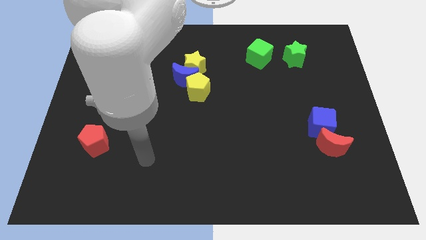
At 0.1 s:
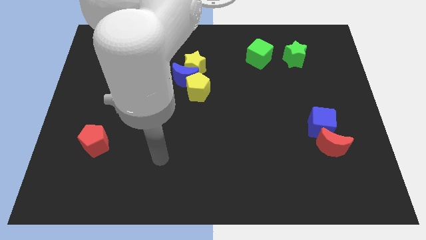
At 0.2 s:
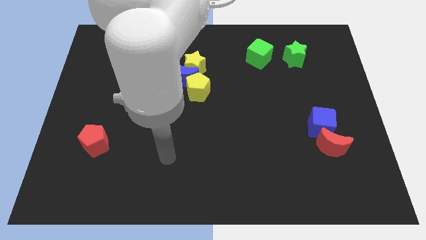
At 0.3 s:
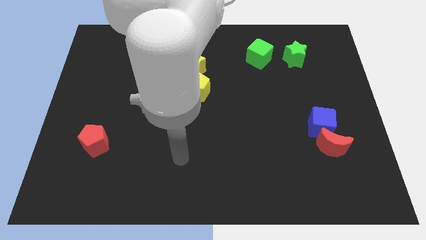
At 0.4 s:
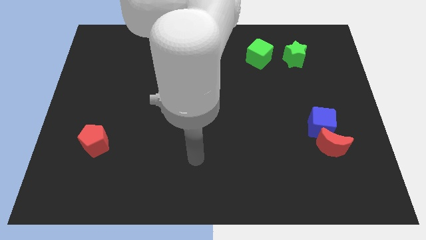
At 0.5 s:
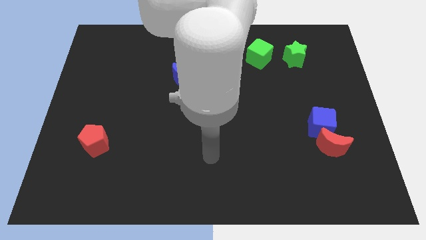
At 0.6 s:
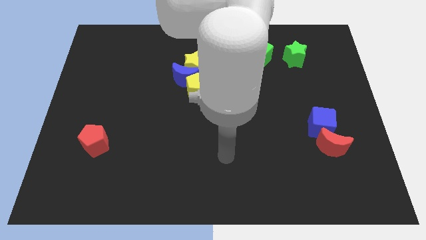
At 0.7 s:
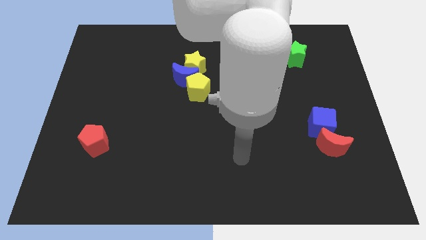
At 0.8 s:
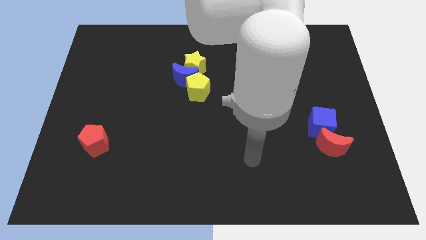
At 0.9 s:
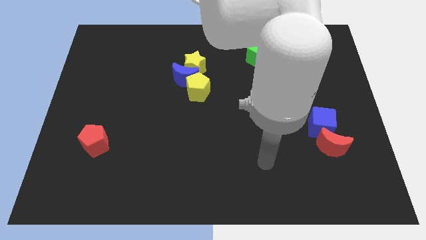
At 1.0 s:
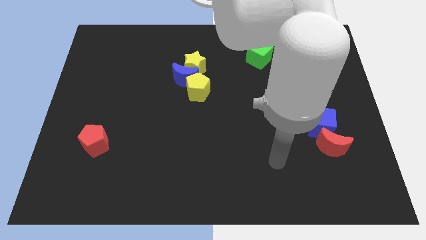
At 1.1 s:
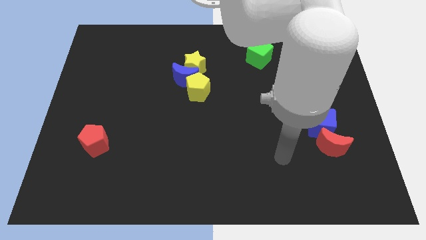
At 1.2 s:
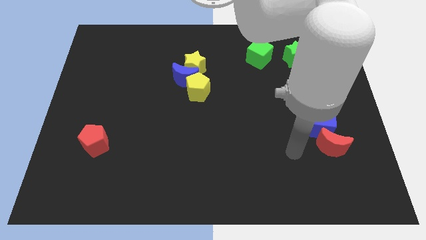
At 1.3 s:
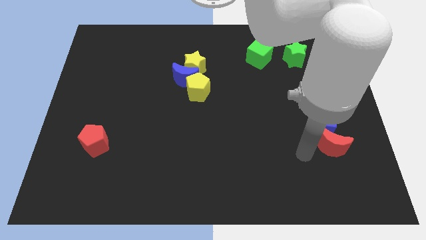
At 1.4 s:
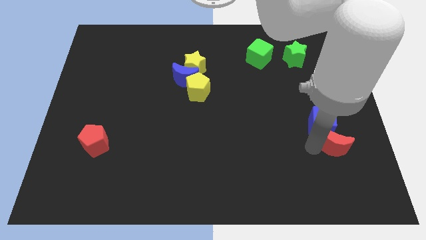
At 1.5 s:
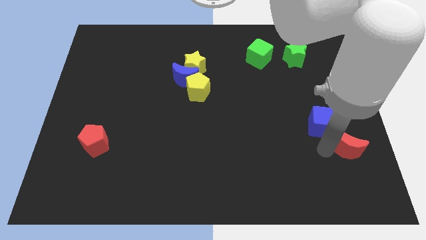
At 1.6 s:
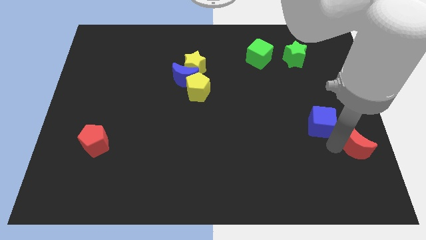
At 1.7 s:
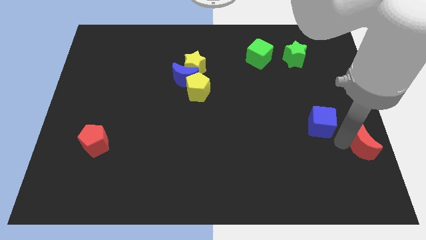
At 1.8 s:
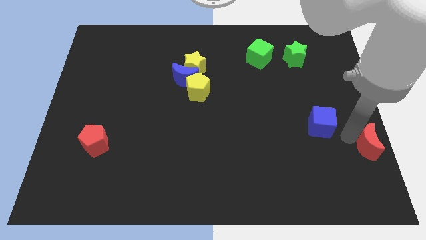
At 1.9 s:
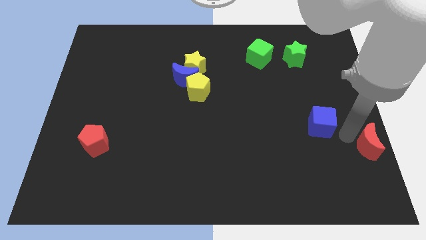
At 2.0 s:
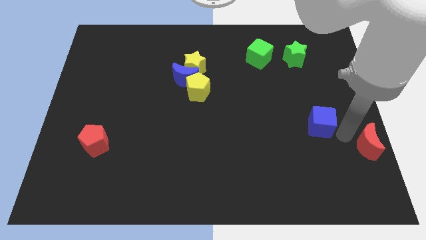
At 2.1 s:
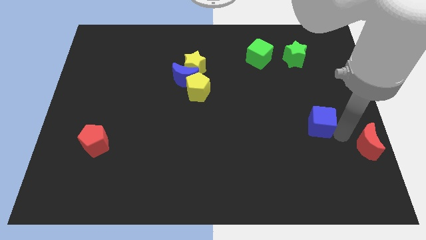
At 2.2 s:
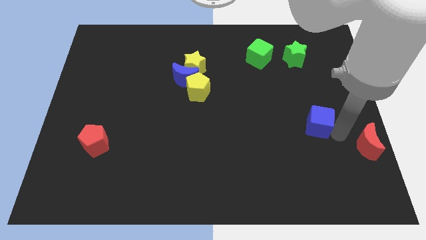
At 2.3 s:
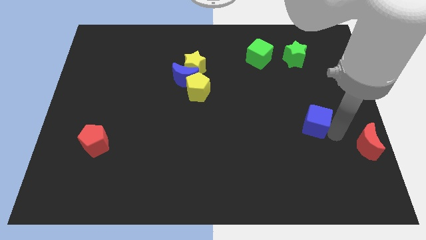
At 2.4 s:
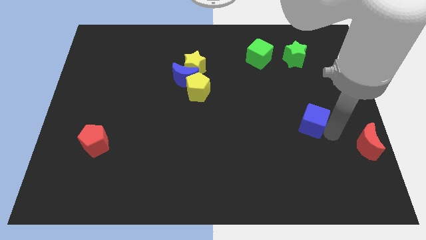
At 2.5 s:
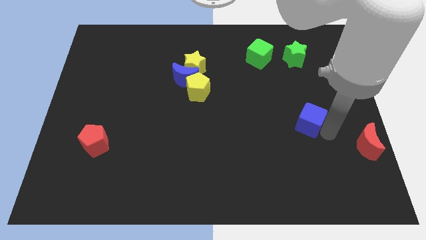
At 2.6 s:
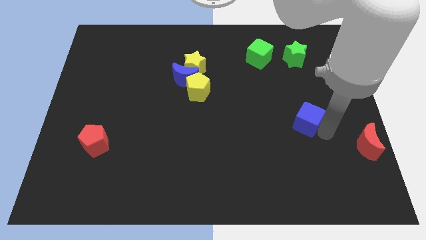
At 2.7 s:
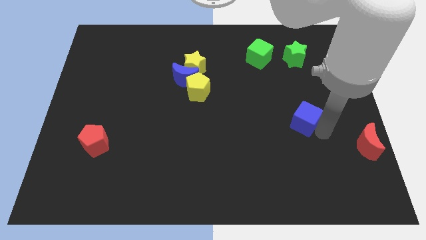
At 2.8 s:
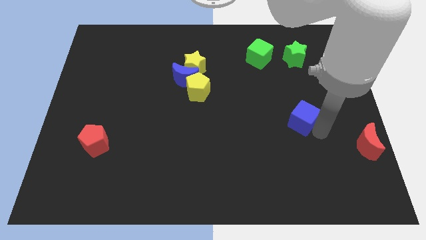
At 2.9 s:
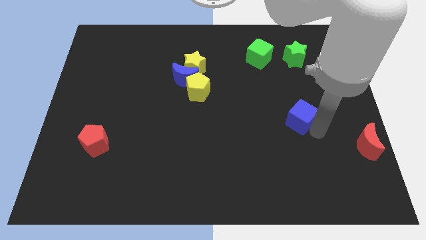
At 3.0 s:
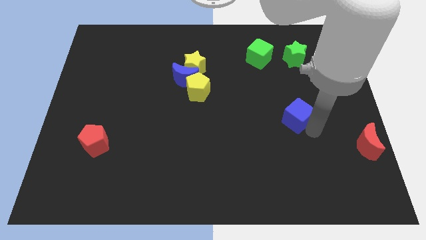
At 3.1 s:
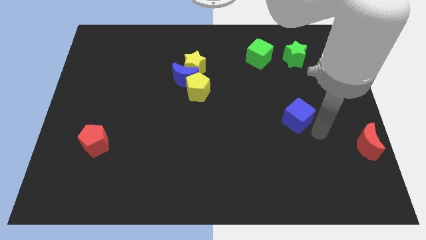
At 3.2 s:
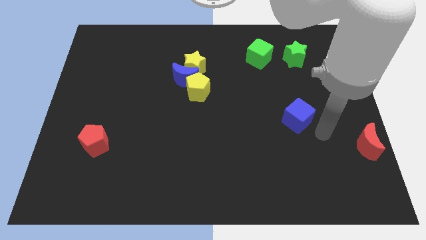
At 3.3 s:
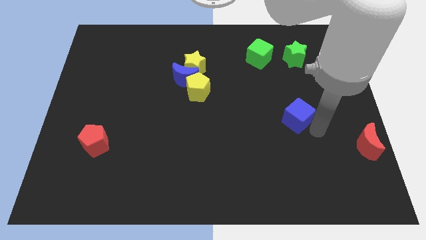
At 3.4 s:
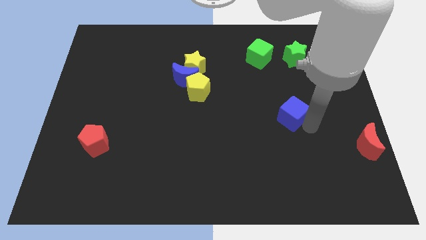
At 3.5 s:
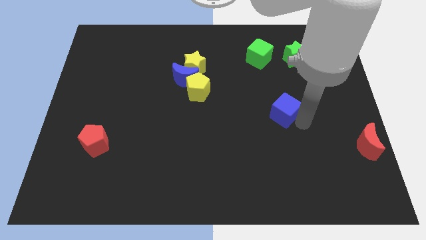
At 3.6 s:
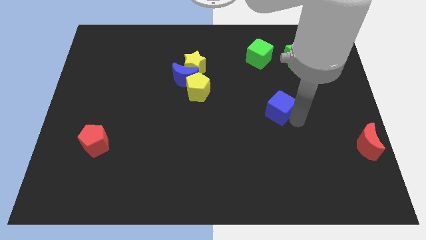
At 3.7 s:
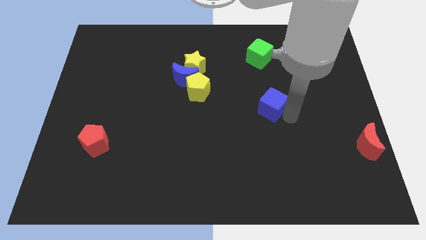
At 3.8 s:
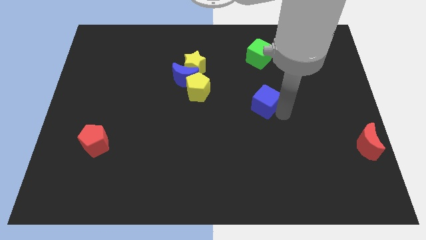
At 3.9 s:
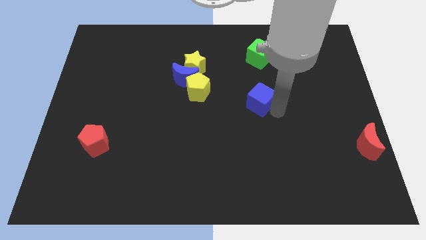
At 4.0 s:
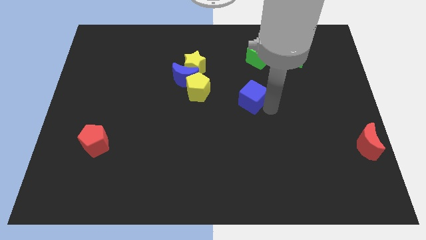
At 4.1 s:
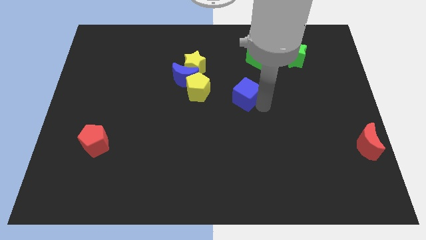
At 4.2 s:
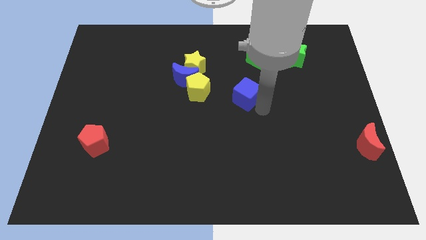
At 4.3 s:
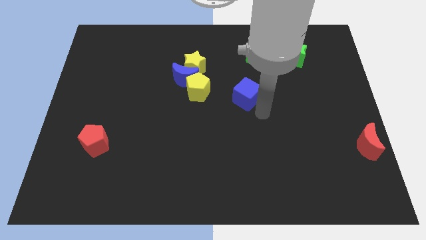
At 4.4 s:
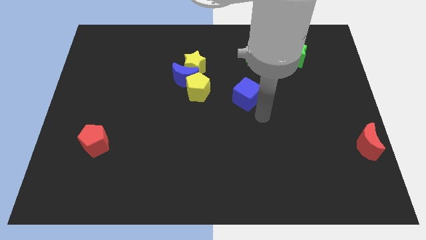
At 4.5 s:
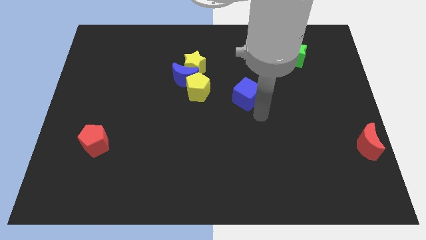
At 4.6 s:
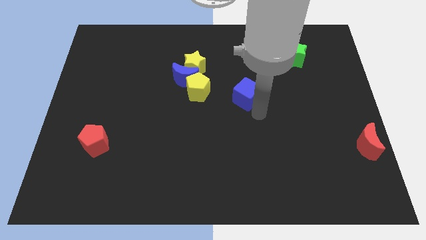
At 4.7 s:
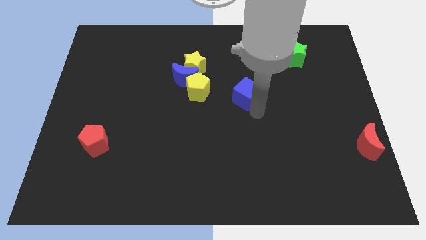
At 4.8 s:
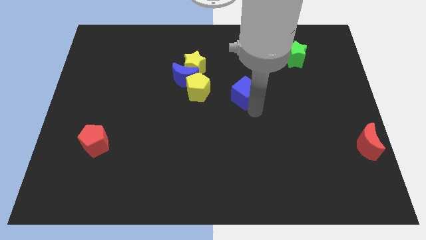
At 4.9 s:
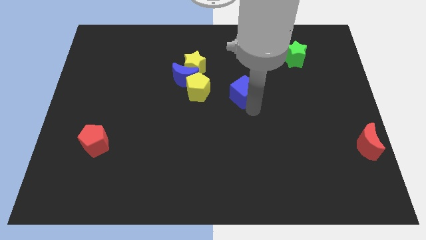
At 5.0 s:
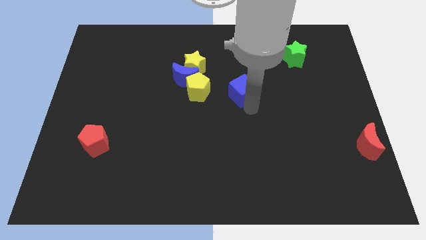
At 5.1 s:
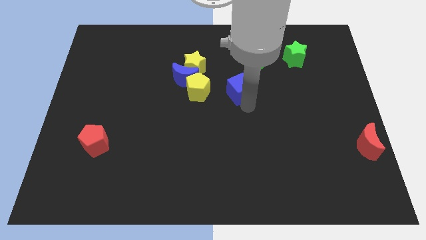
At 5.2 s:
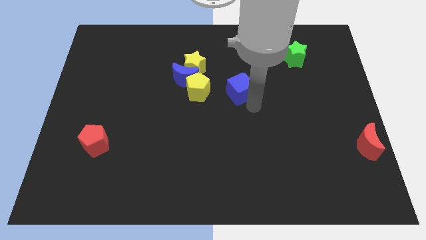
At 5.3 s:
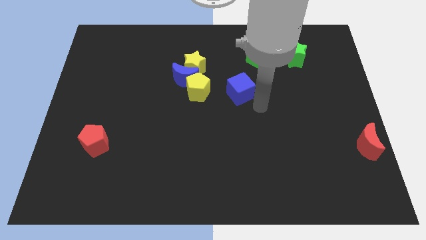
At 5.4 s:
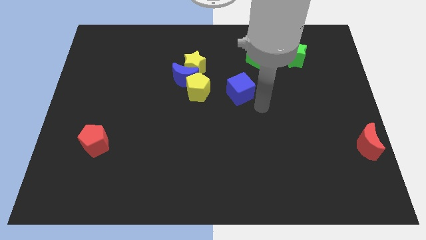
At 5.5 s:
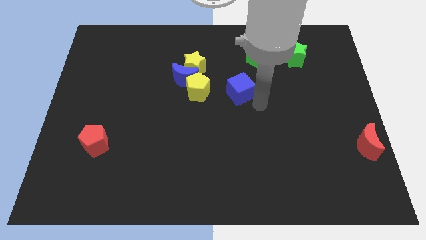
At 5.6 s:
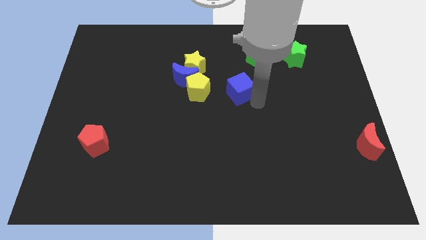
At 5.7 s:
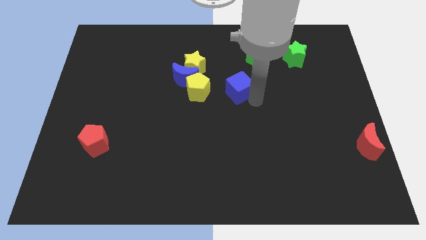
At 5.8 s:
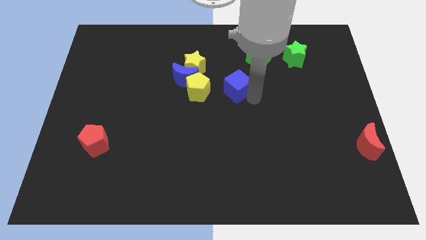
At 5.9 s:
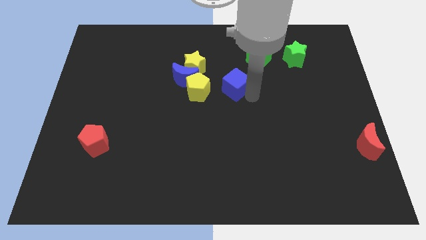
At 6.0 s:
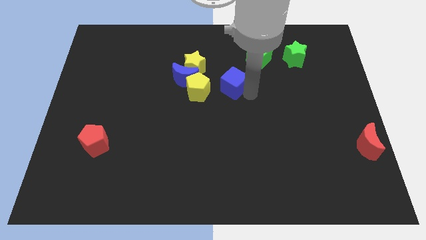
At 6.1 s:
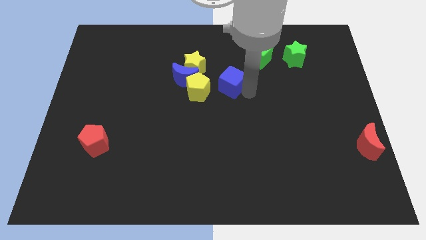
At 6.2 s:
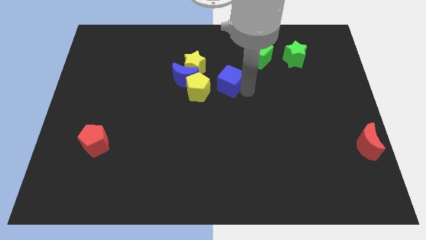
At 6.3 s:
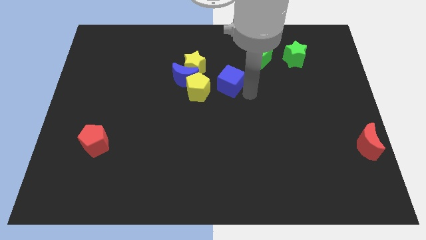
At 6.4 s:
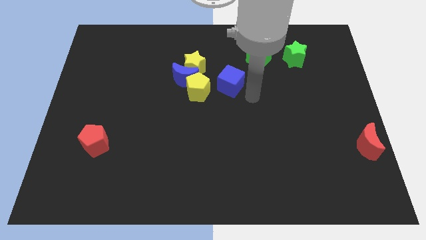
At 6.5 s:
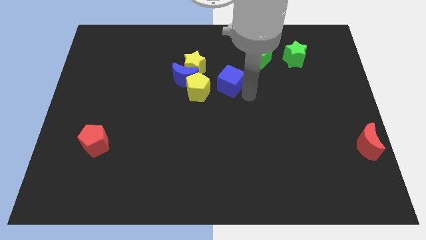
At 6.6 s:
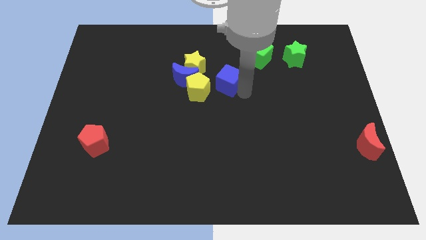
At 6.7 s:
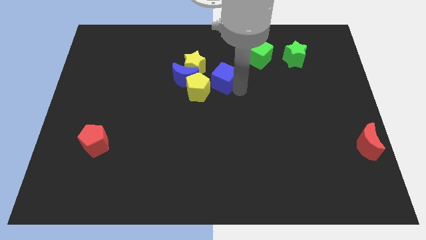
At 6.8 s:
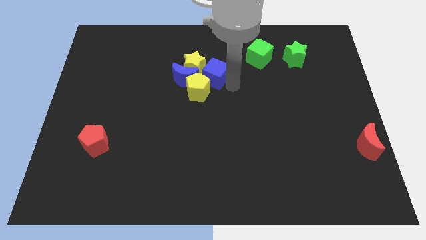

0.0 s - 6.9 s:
move the blue cube to the yellow star

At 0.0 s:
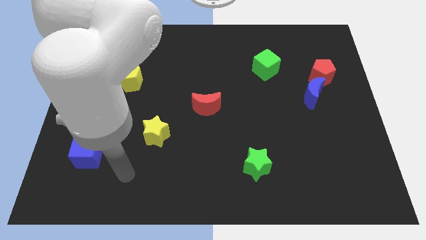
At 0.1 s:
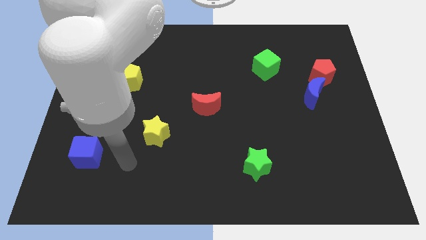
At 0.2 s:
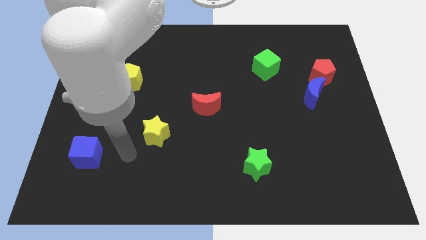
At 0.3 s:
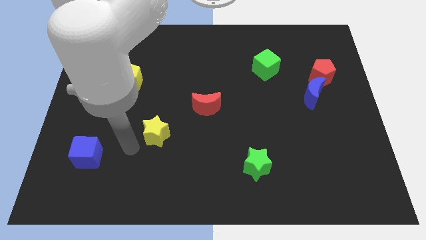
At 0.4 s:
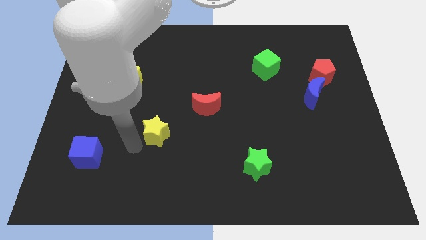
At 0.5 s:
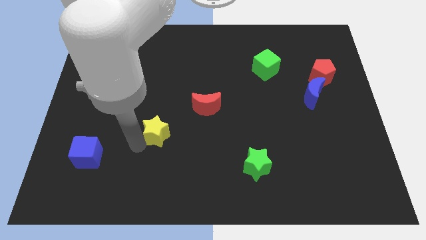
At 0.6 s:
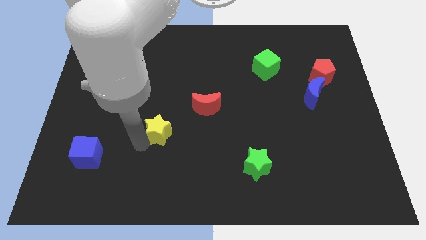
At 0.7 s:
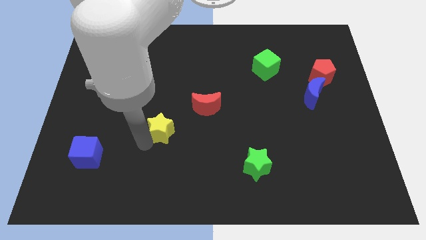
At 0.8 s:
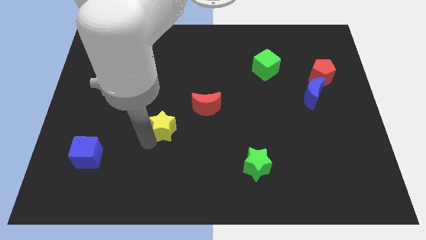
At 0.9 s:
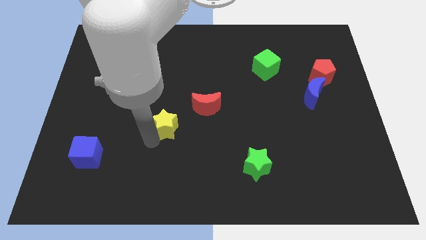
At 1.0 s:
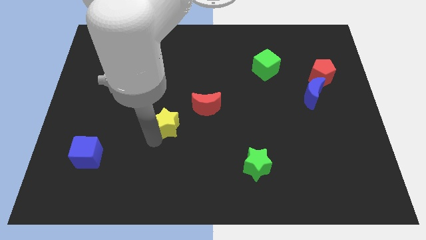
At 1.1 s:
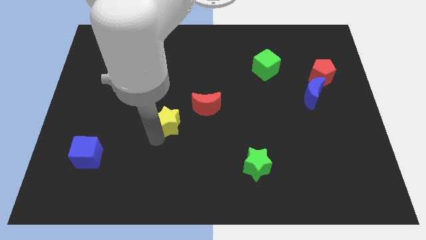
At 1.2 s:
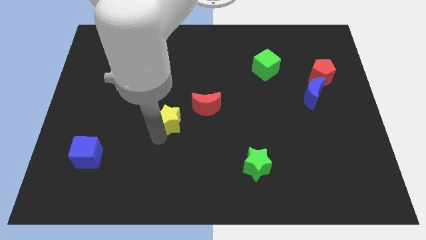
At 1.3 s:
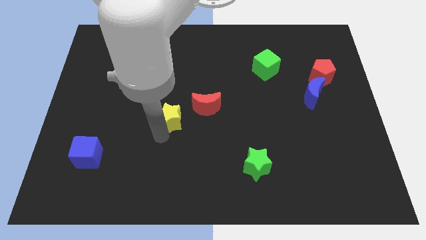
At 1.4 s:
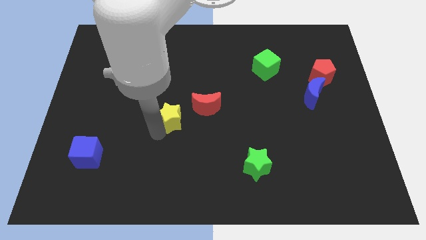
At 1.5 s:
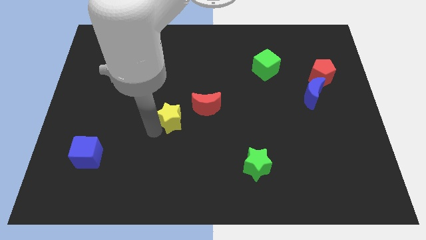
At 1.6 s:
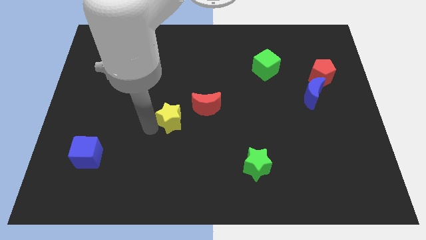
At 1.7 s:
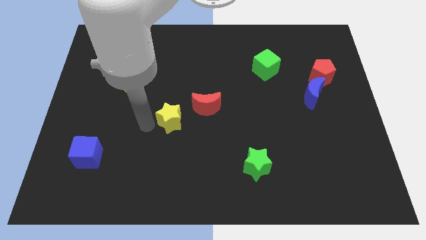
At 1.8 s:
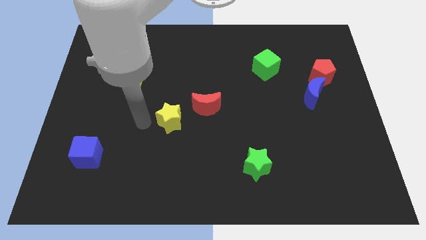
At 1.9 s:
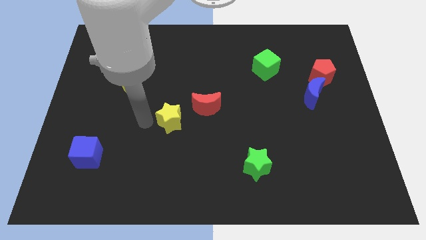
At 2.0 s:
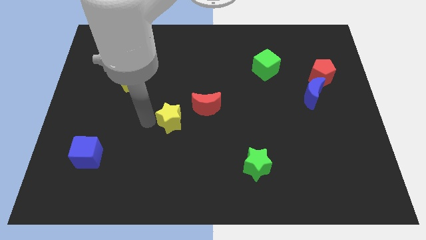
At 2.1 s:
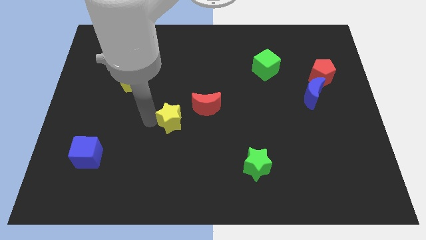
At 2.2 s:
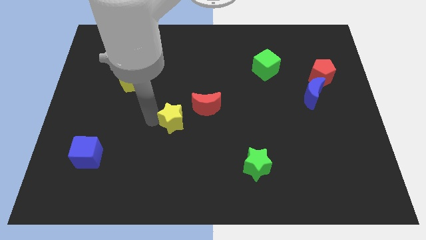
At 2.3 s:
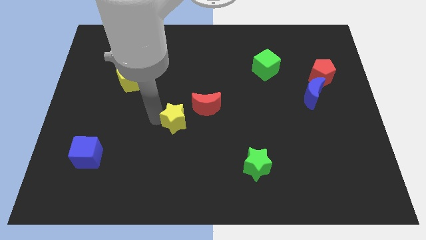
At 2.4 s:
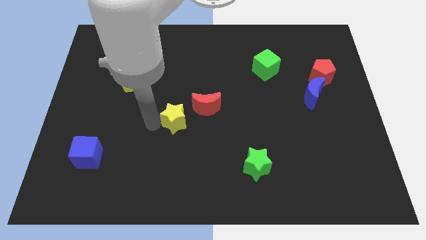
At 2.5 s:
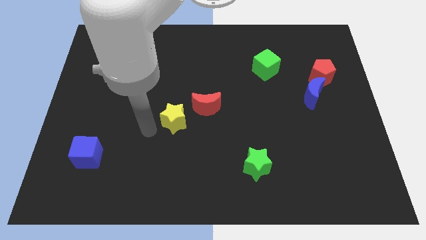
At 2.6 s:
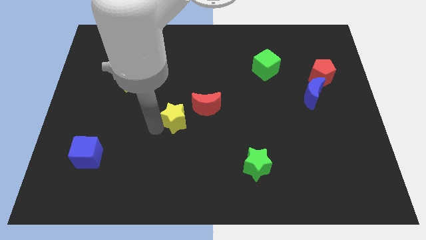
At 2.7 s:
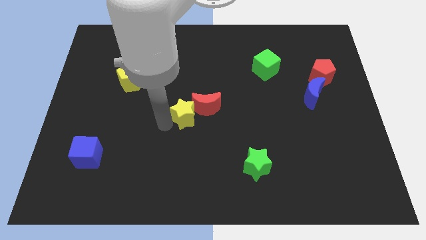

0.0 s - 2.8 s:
push the yellow star towards the red moon
